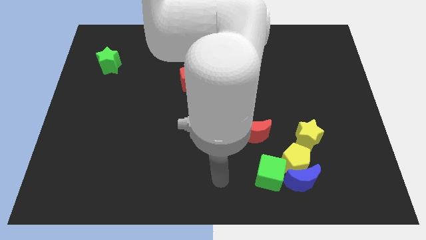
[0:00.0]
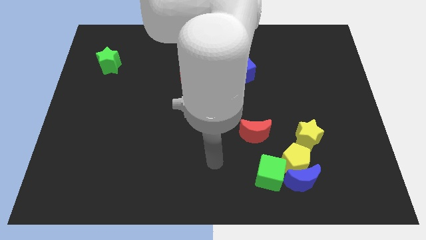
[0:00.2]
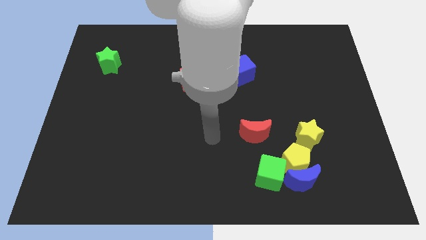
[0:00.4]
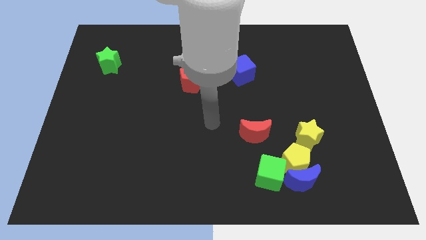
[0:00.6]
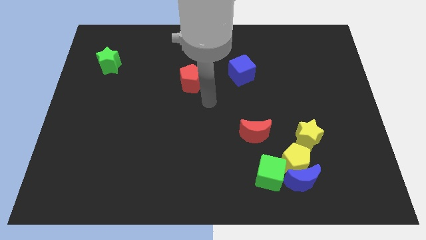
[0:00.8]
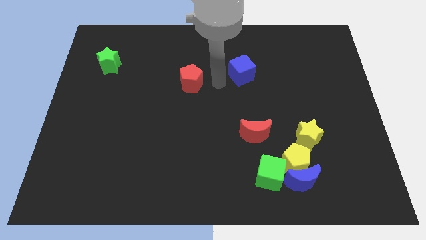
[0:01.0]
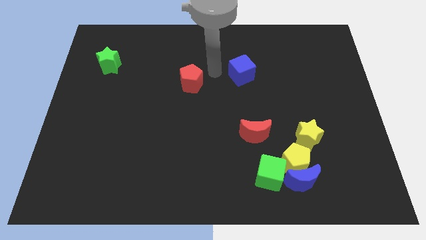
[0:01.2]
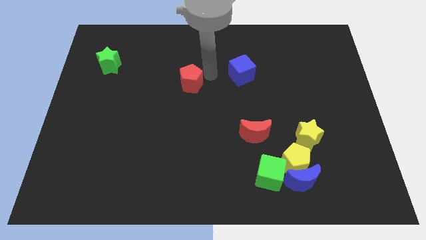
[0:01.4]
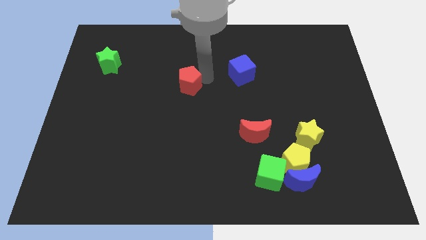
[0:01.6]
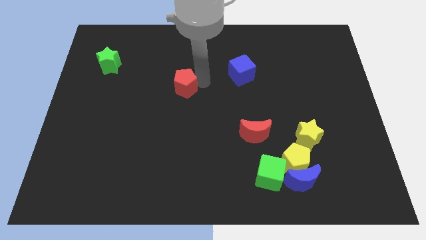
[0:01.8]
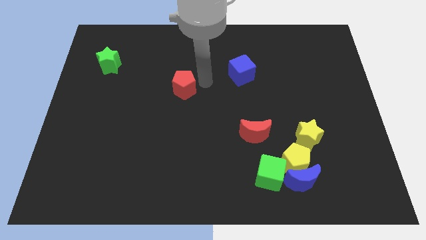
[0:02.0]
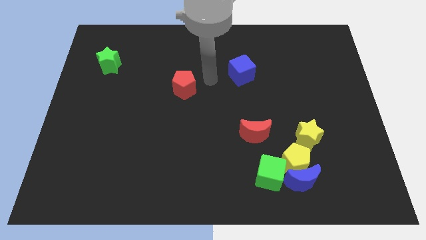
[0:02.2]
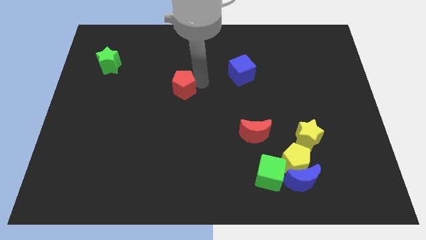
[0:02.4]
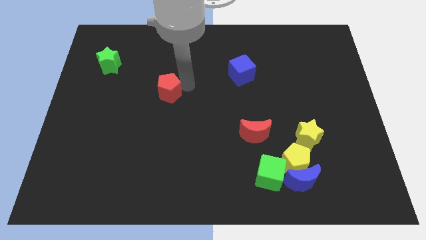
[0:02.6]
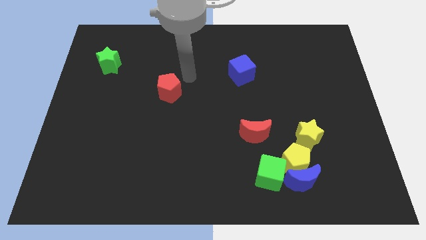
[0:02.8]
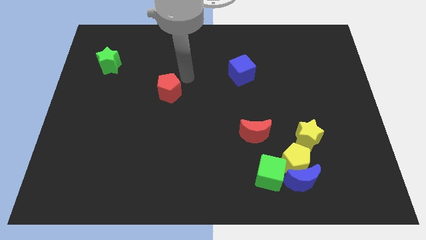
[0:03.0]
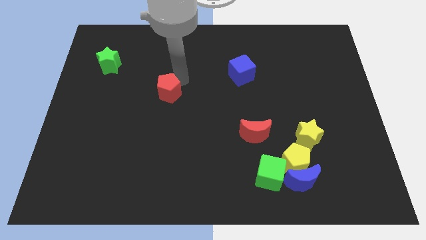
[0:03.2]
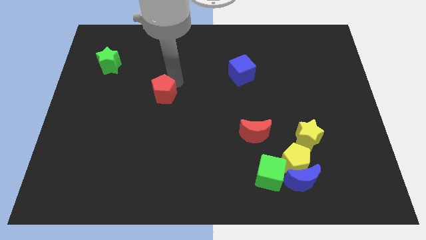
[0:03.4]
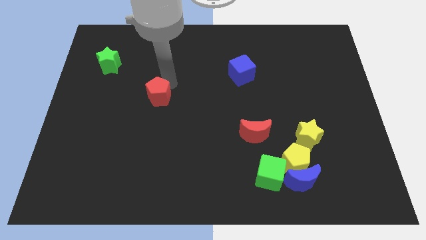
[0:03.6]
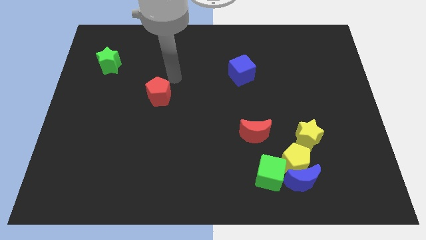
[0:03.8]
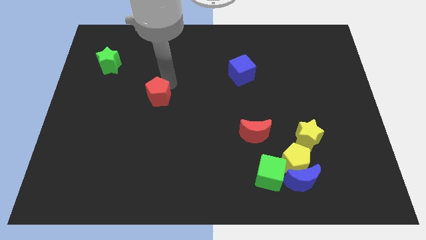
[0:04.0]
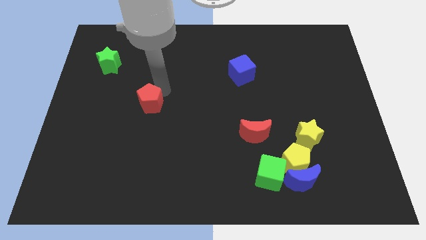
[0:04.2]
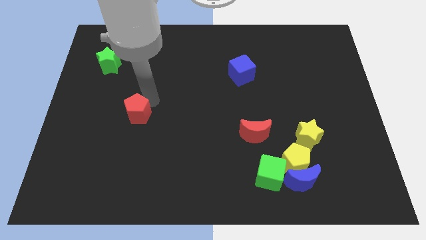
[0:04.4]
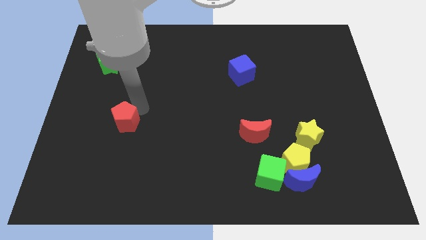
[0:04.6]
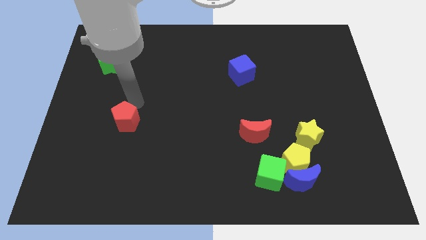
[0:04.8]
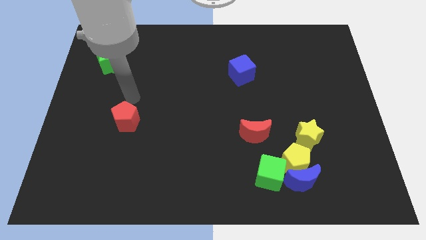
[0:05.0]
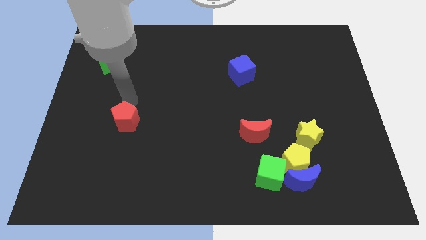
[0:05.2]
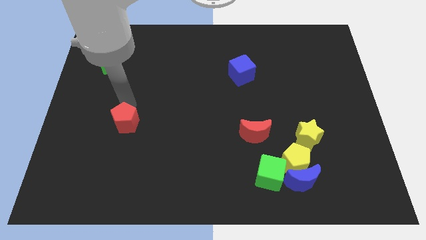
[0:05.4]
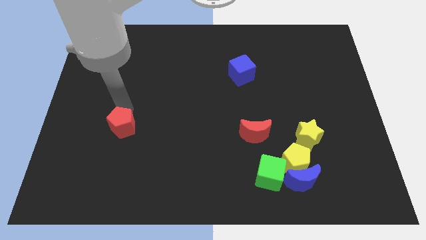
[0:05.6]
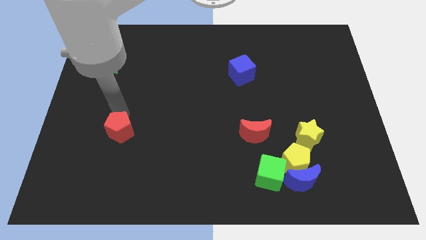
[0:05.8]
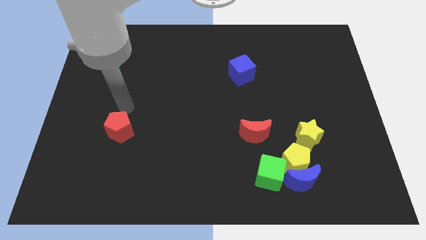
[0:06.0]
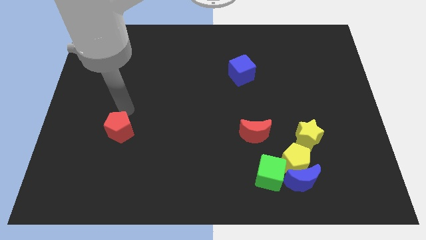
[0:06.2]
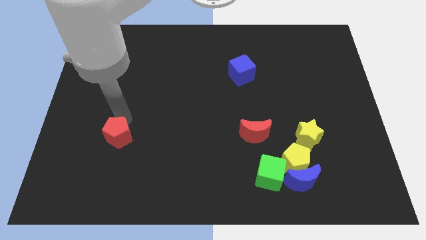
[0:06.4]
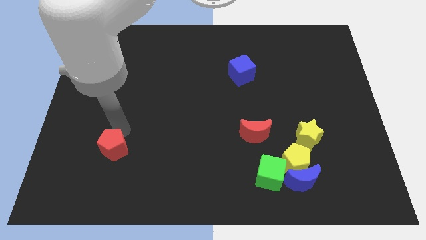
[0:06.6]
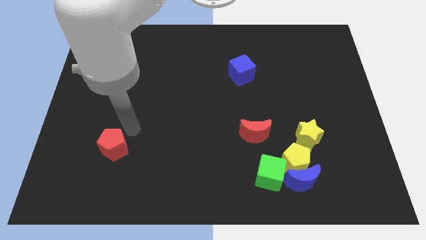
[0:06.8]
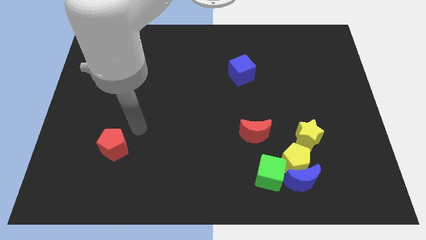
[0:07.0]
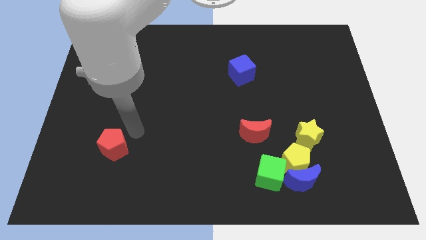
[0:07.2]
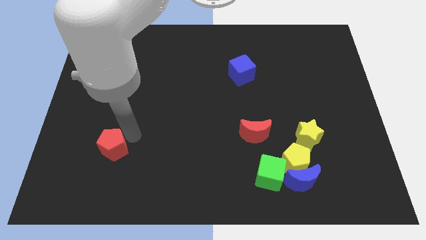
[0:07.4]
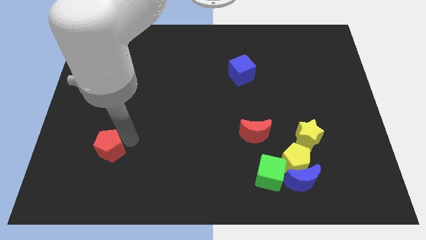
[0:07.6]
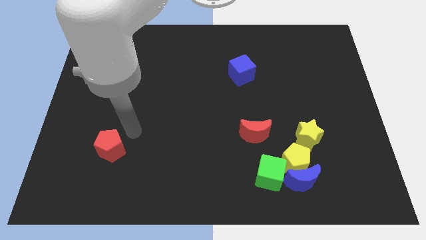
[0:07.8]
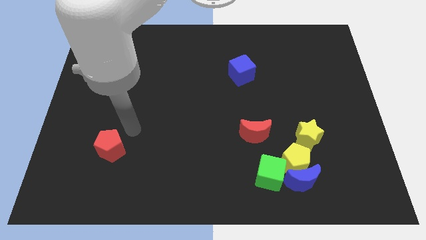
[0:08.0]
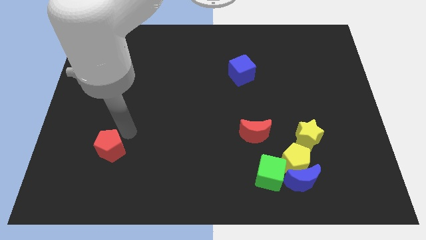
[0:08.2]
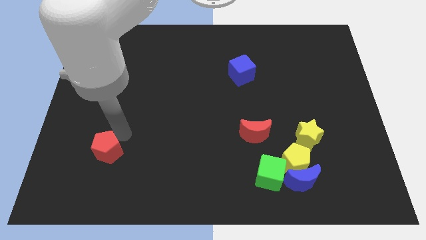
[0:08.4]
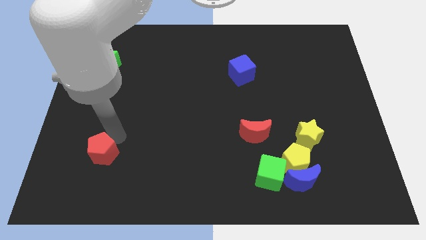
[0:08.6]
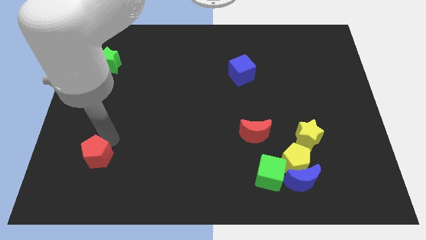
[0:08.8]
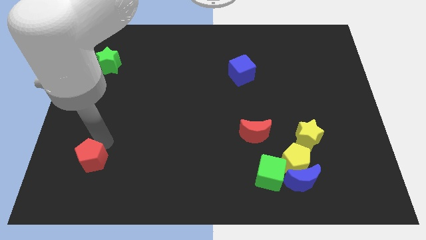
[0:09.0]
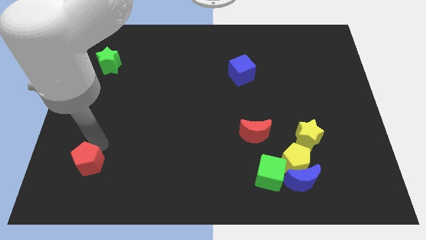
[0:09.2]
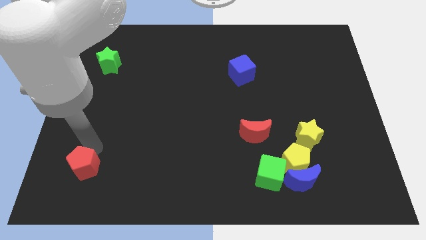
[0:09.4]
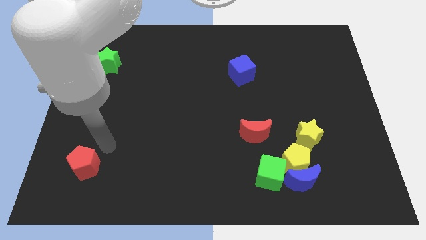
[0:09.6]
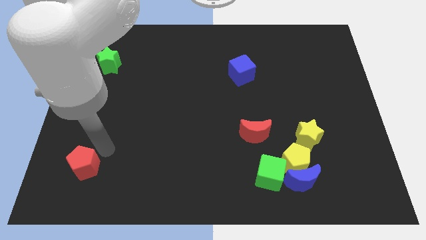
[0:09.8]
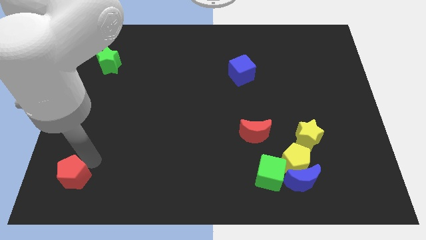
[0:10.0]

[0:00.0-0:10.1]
slide the red pentagon to the bottom left

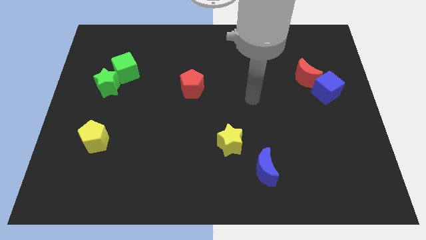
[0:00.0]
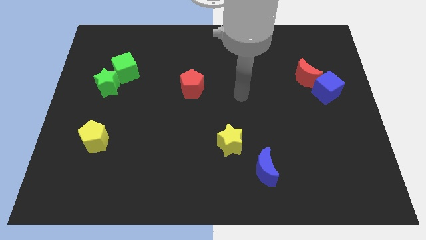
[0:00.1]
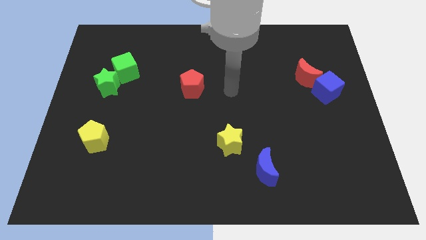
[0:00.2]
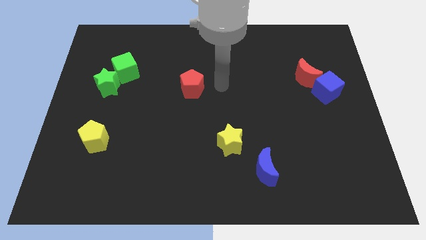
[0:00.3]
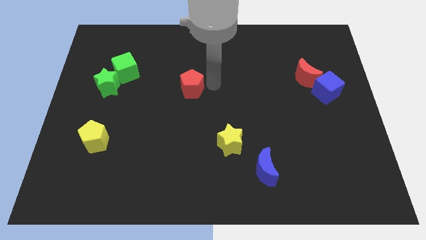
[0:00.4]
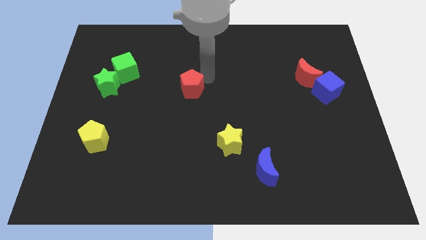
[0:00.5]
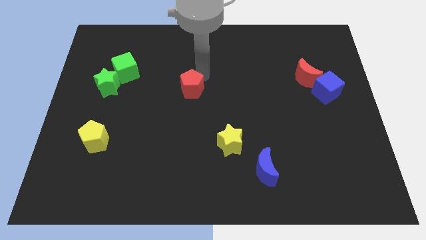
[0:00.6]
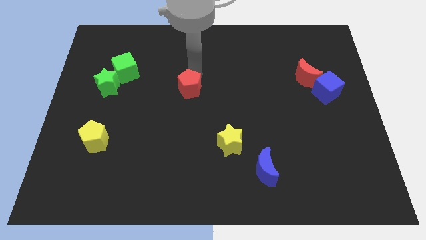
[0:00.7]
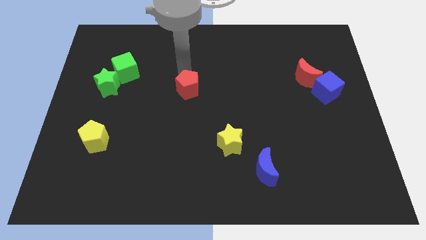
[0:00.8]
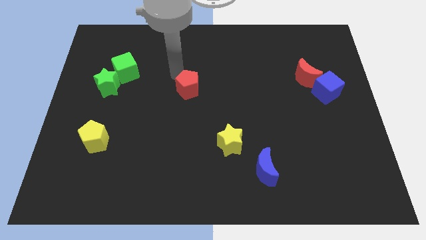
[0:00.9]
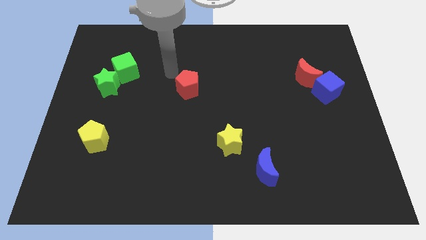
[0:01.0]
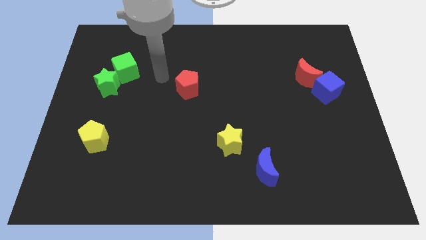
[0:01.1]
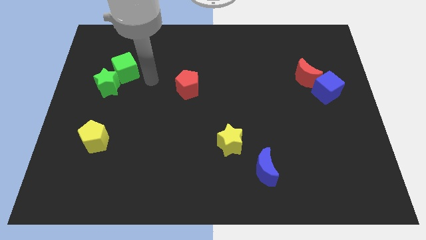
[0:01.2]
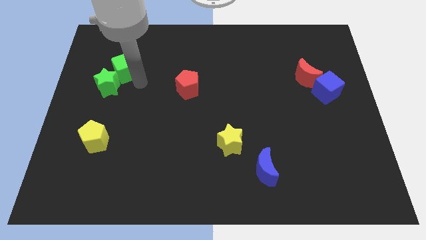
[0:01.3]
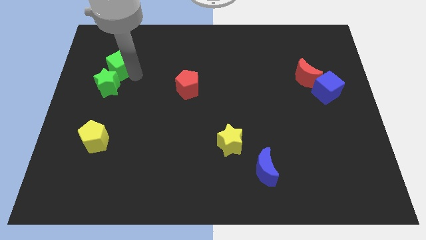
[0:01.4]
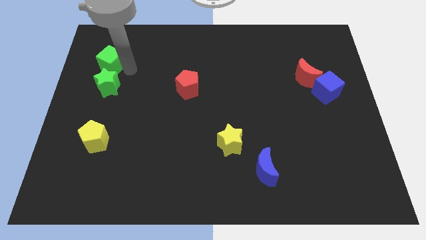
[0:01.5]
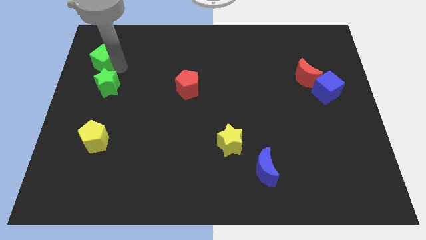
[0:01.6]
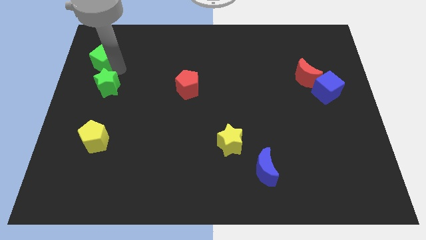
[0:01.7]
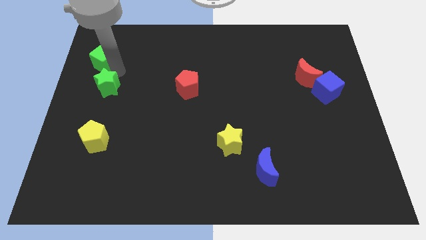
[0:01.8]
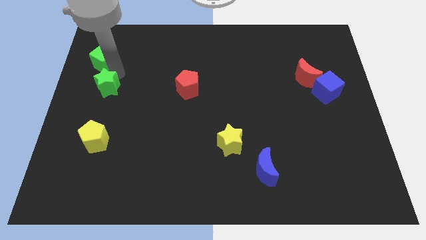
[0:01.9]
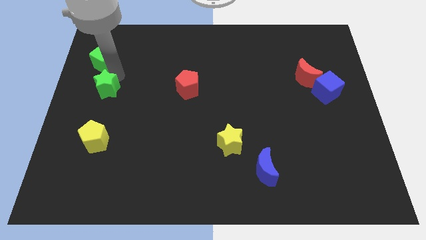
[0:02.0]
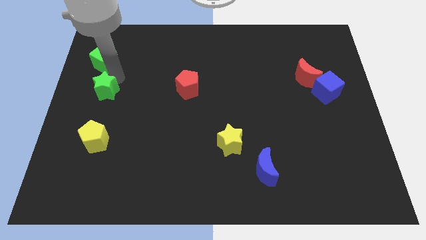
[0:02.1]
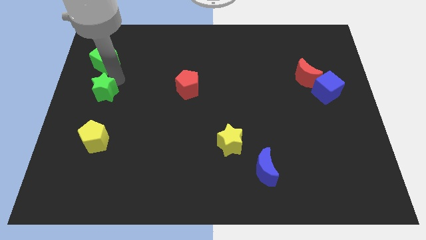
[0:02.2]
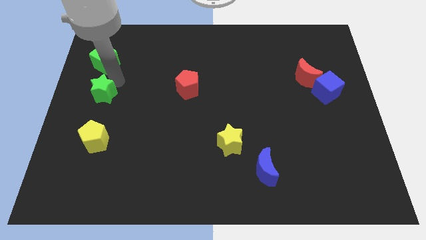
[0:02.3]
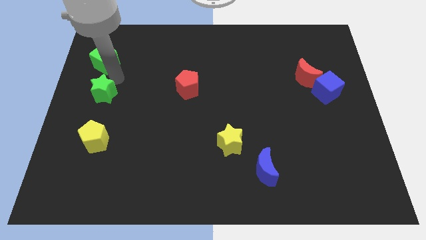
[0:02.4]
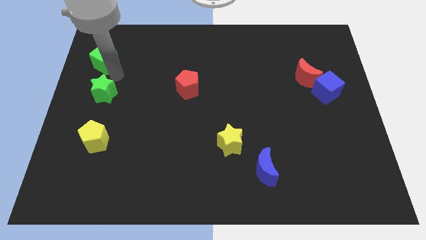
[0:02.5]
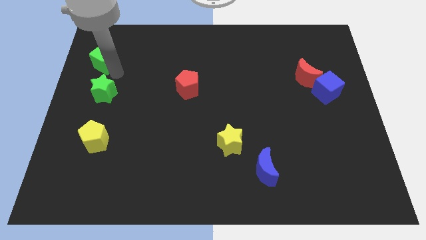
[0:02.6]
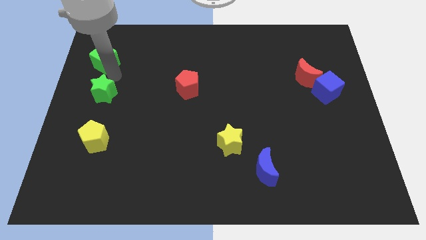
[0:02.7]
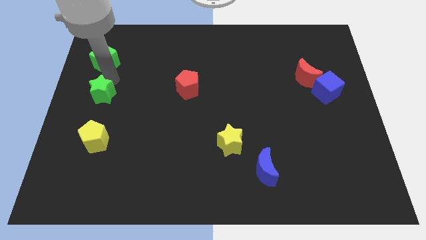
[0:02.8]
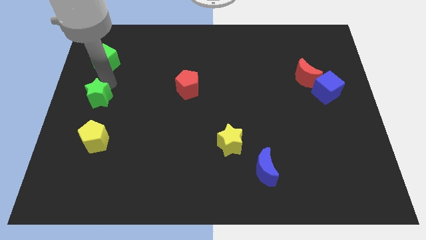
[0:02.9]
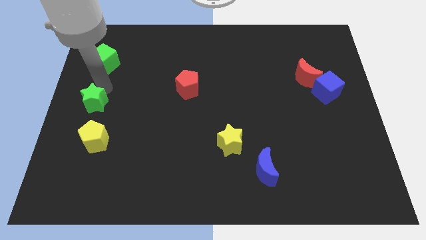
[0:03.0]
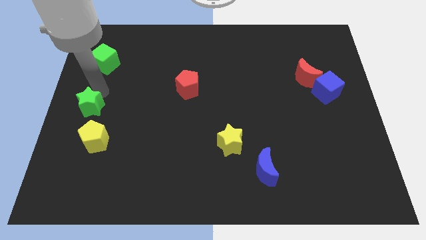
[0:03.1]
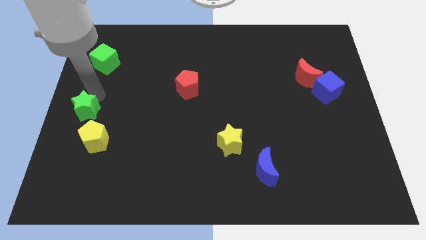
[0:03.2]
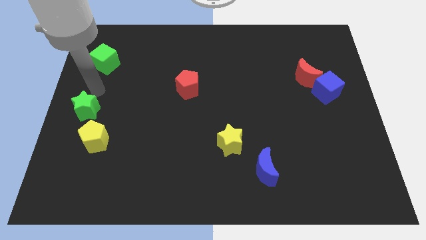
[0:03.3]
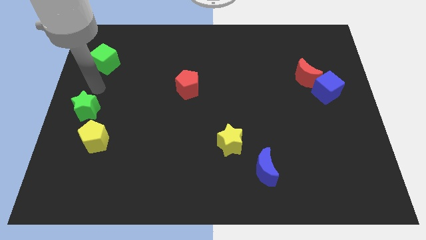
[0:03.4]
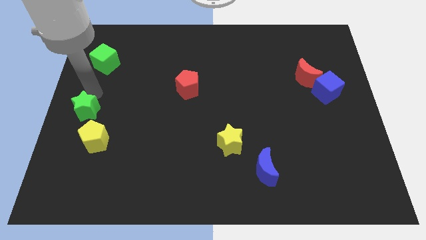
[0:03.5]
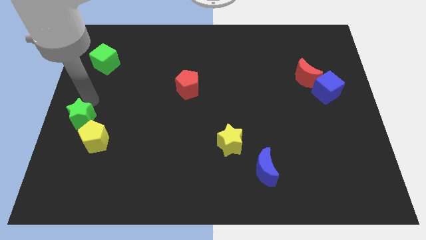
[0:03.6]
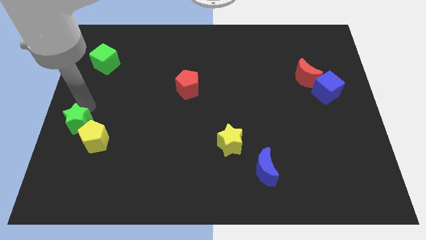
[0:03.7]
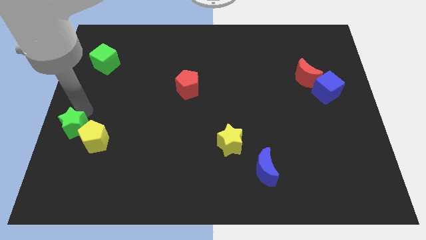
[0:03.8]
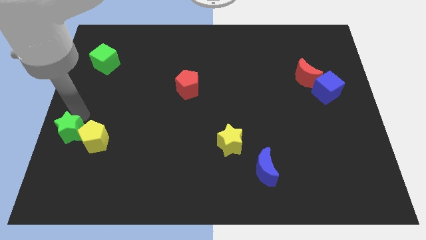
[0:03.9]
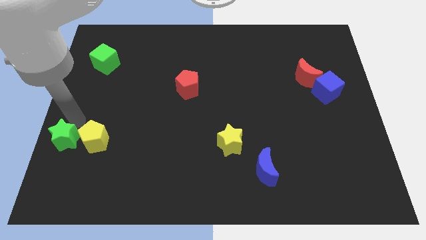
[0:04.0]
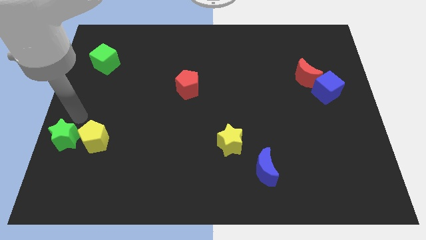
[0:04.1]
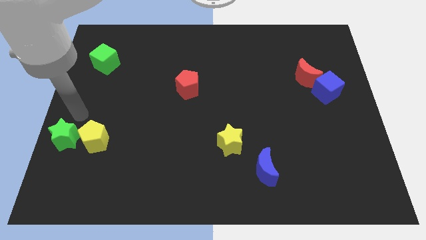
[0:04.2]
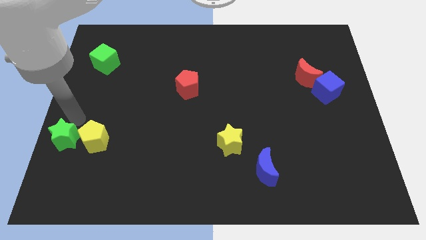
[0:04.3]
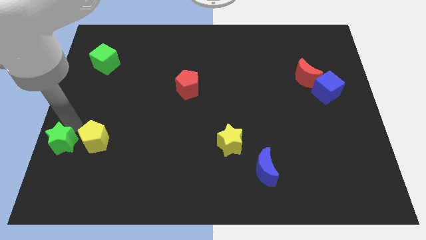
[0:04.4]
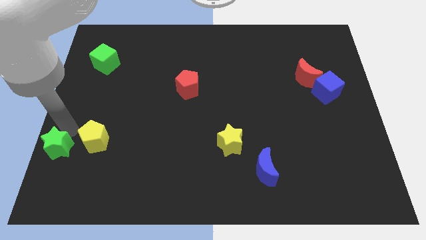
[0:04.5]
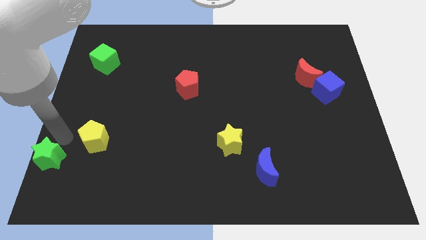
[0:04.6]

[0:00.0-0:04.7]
slide the green star to the bottom left corner
